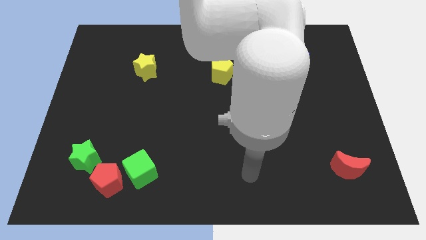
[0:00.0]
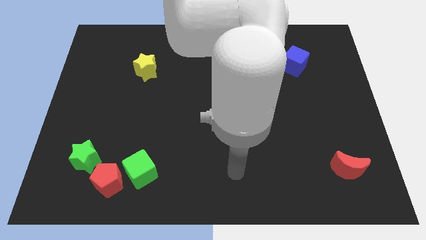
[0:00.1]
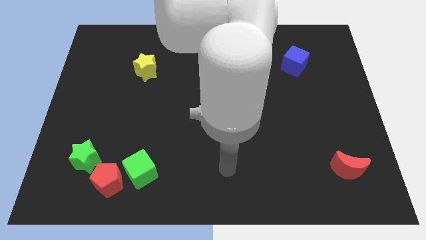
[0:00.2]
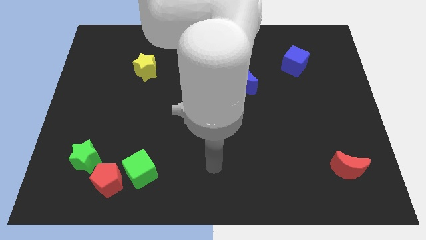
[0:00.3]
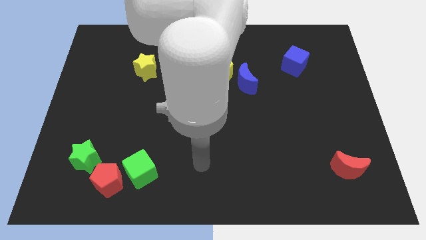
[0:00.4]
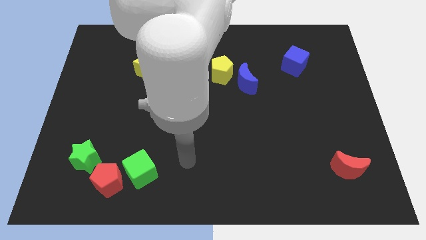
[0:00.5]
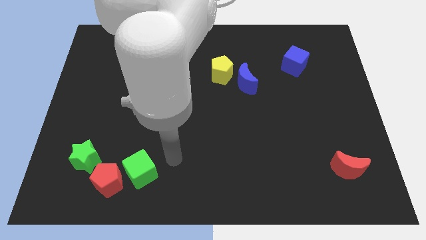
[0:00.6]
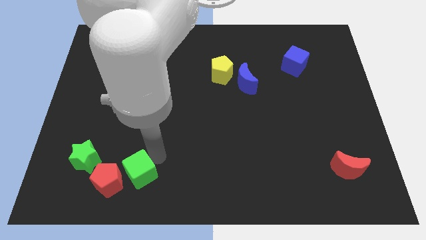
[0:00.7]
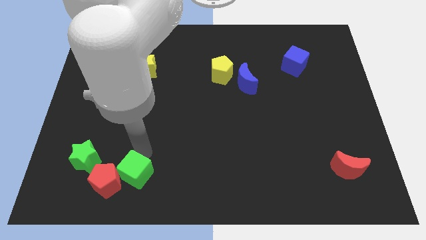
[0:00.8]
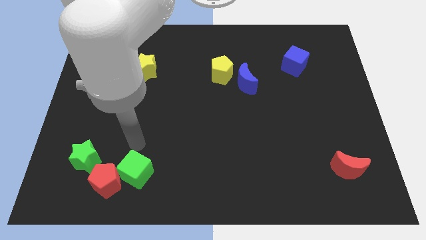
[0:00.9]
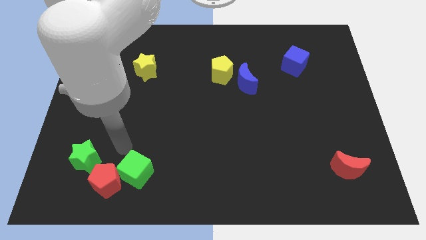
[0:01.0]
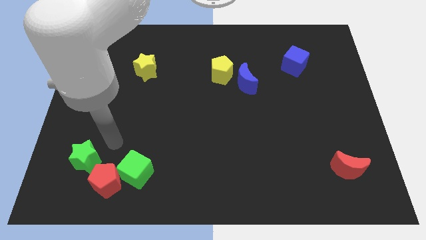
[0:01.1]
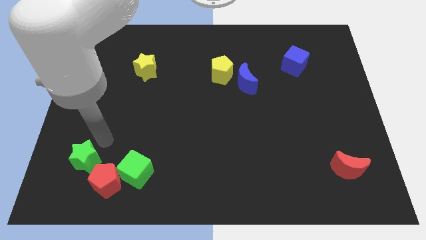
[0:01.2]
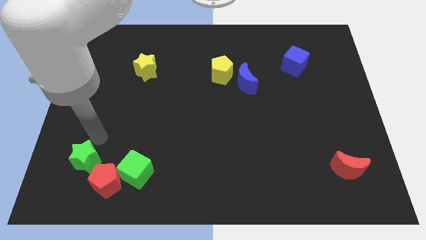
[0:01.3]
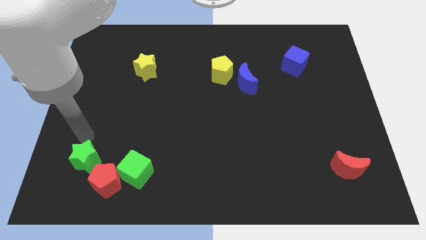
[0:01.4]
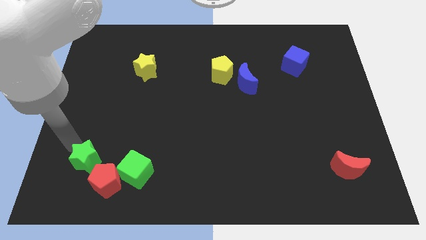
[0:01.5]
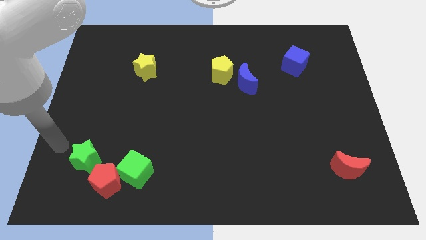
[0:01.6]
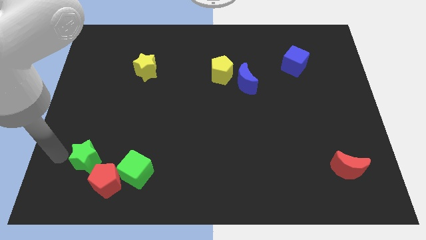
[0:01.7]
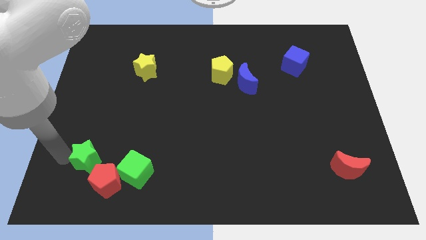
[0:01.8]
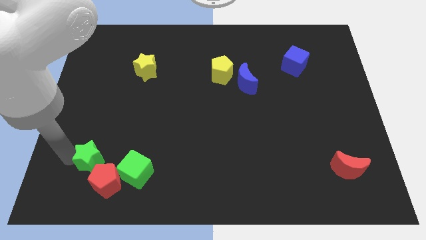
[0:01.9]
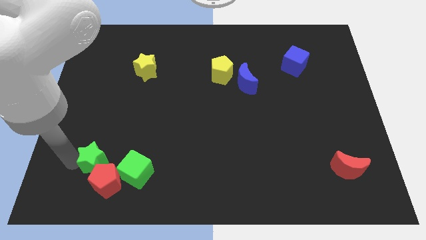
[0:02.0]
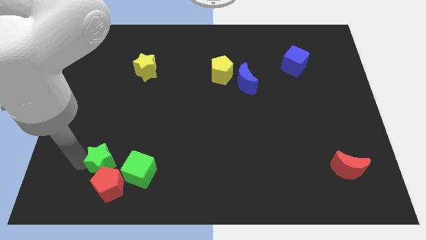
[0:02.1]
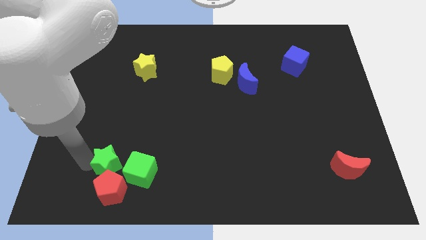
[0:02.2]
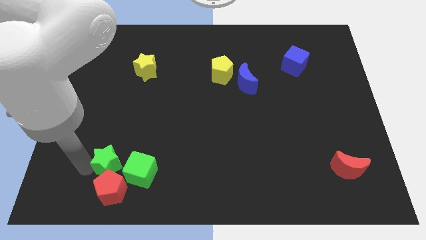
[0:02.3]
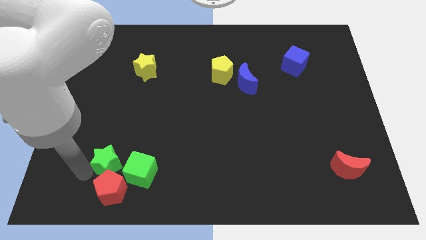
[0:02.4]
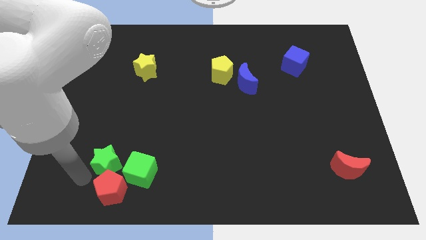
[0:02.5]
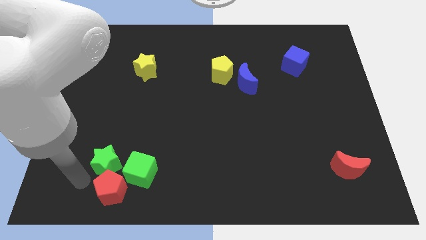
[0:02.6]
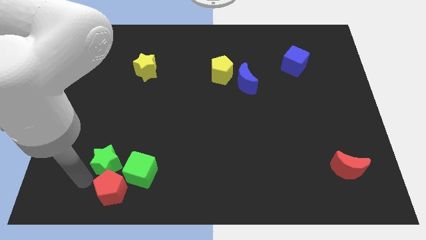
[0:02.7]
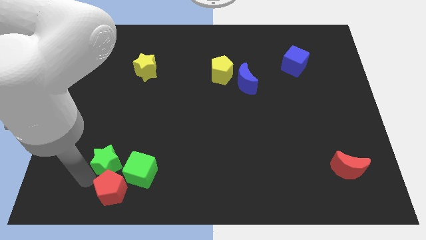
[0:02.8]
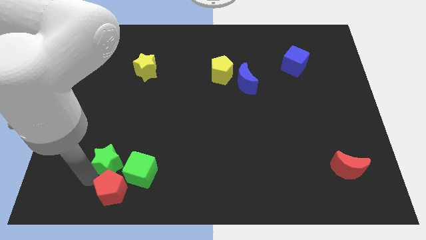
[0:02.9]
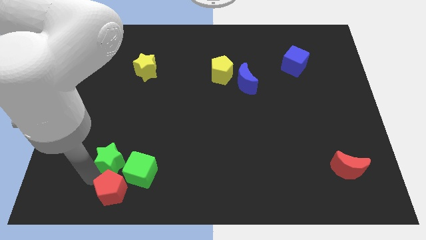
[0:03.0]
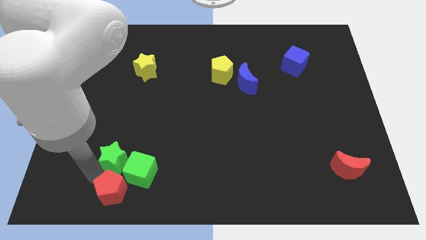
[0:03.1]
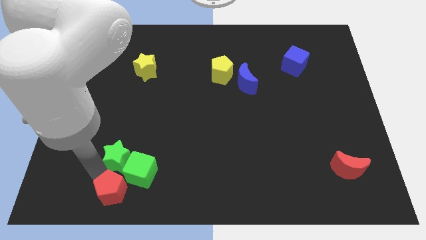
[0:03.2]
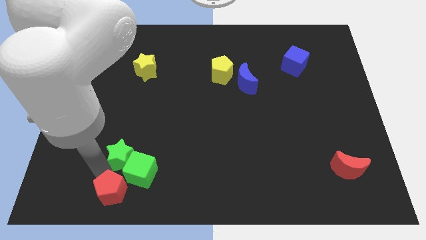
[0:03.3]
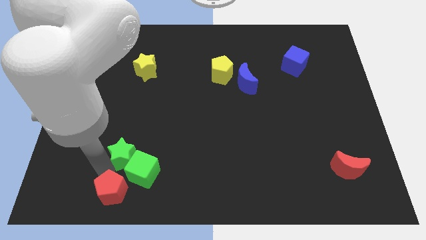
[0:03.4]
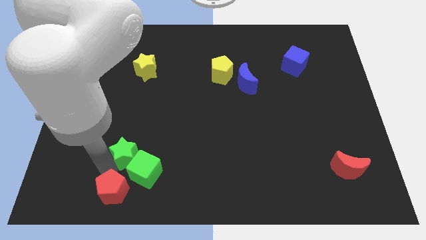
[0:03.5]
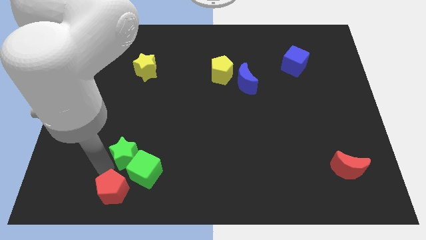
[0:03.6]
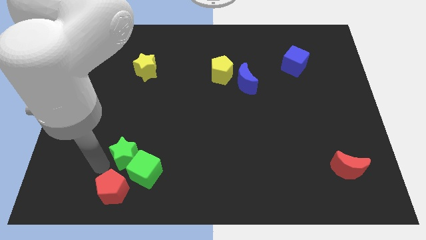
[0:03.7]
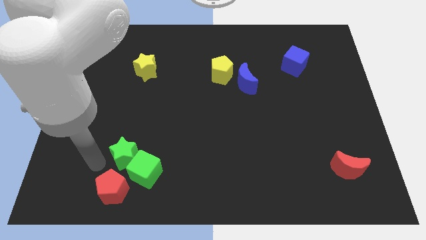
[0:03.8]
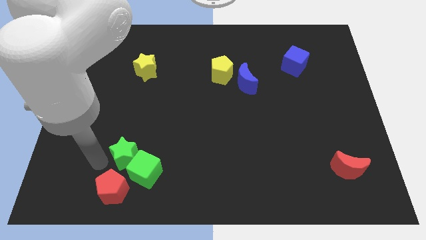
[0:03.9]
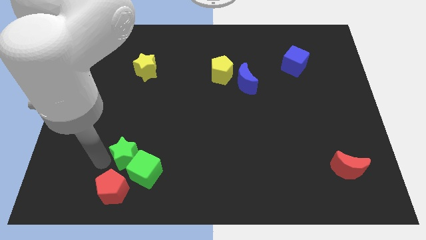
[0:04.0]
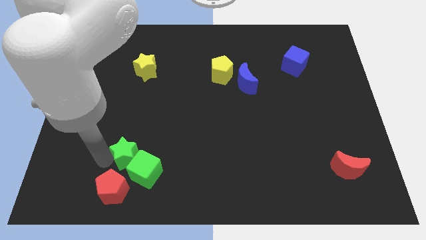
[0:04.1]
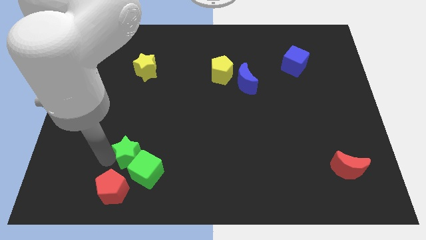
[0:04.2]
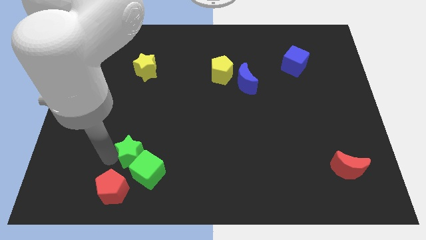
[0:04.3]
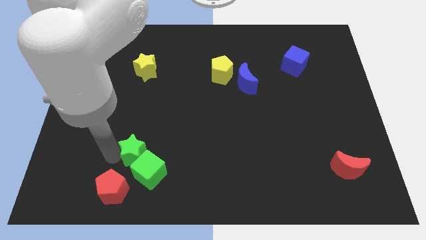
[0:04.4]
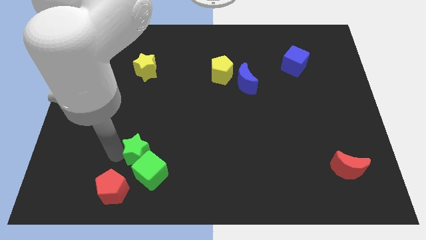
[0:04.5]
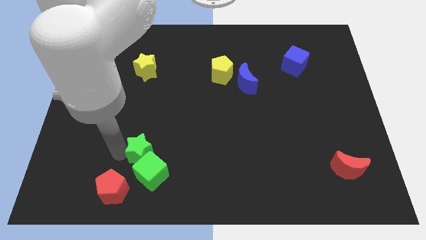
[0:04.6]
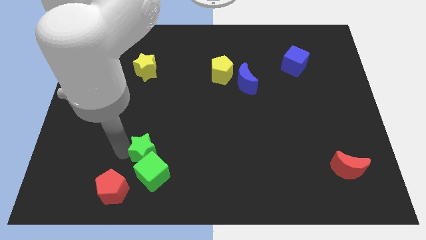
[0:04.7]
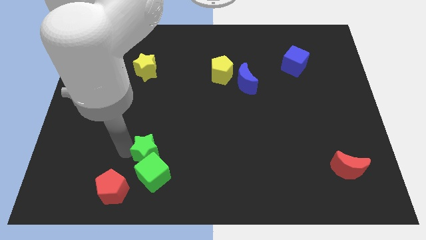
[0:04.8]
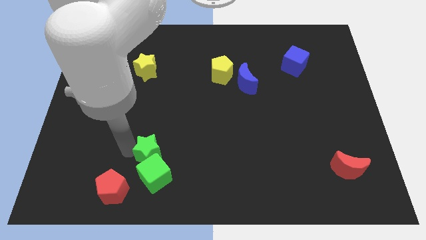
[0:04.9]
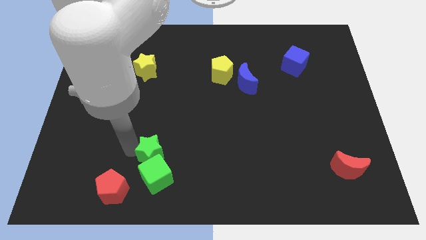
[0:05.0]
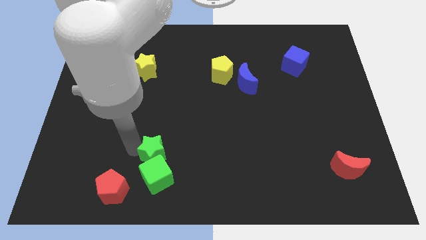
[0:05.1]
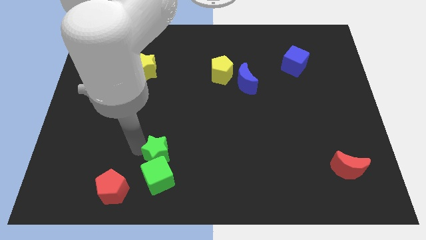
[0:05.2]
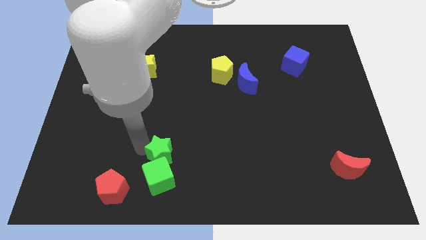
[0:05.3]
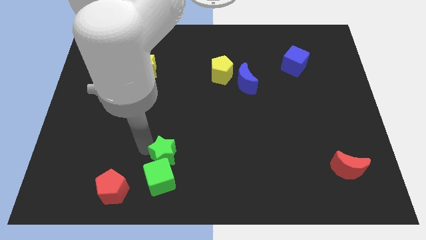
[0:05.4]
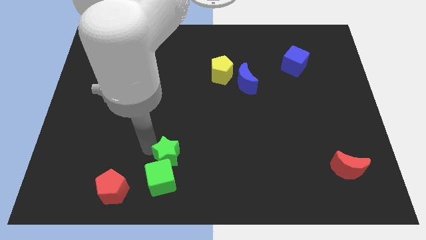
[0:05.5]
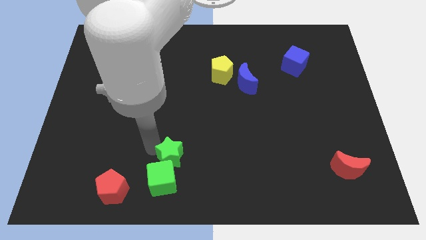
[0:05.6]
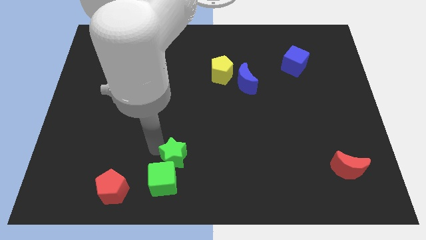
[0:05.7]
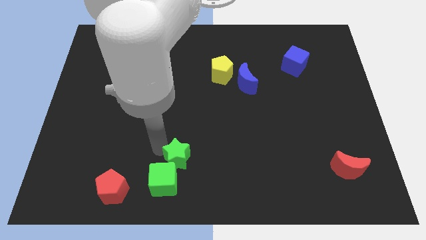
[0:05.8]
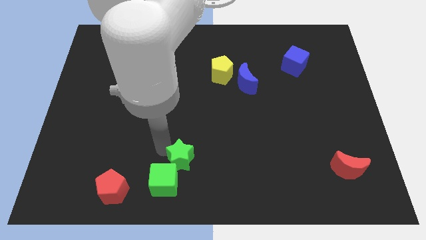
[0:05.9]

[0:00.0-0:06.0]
push the green star to the bottom side

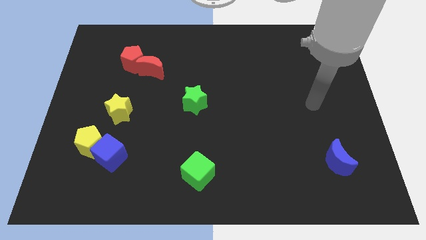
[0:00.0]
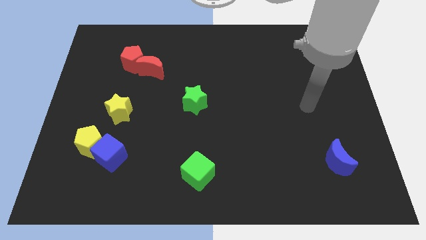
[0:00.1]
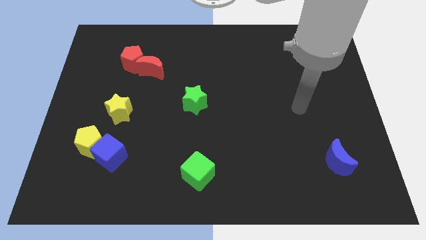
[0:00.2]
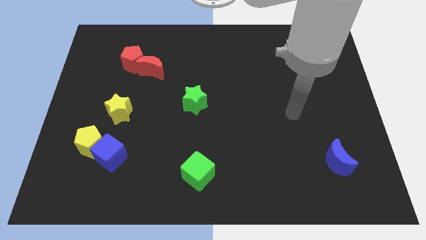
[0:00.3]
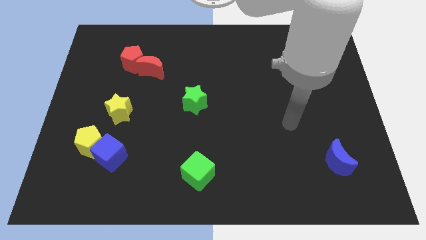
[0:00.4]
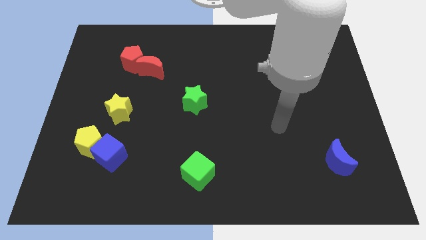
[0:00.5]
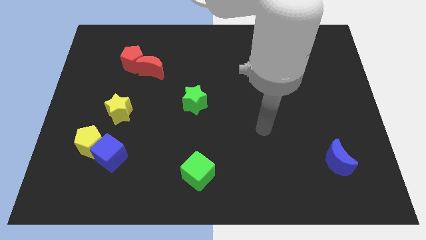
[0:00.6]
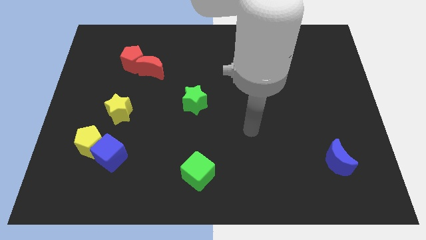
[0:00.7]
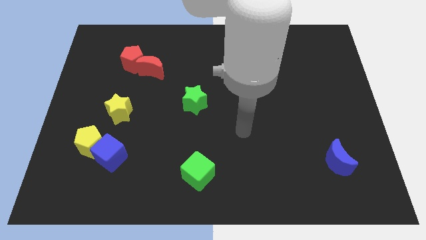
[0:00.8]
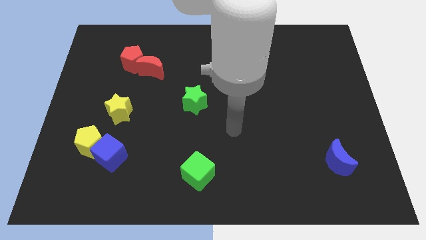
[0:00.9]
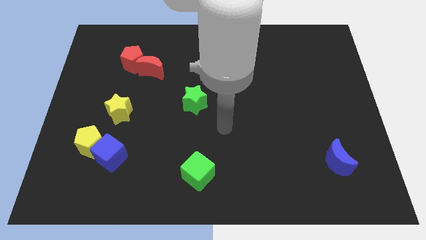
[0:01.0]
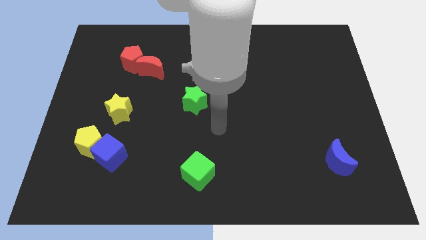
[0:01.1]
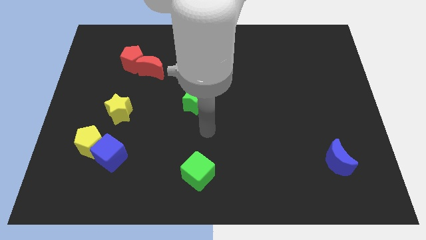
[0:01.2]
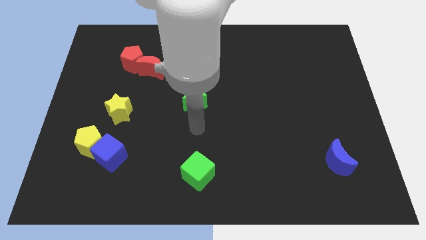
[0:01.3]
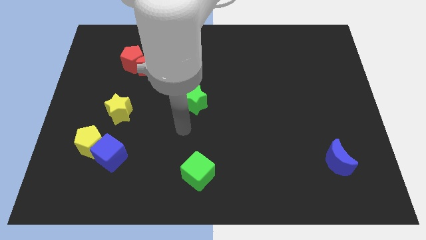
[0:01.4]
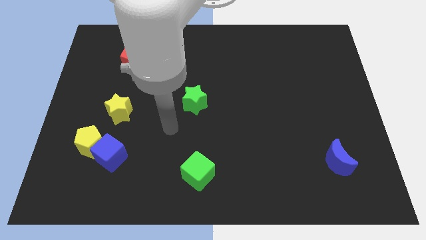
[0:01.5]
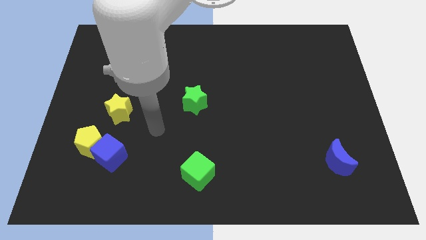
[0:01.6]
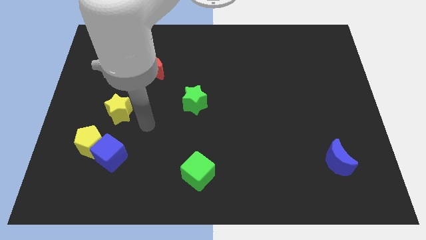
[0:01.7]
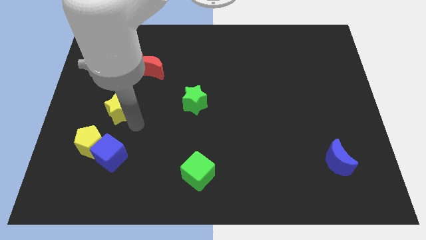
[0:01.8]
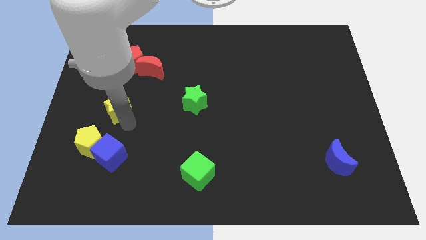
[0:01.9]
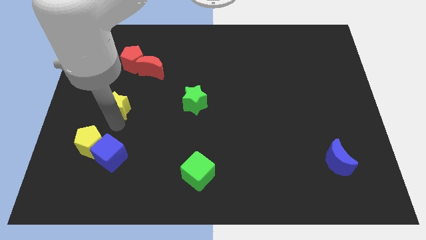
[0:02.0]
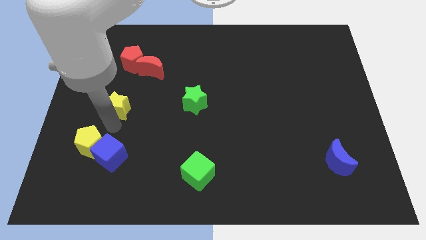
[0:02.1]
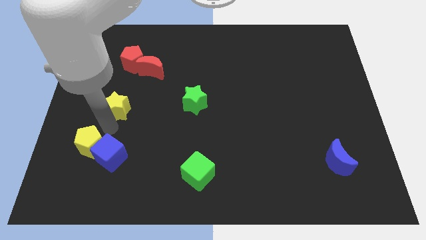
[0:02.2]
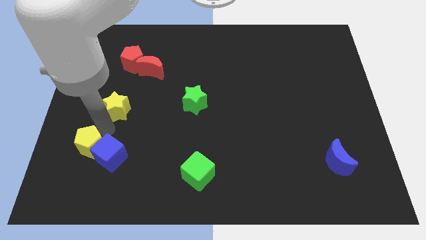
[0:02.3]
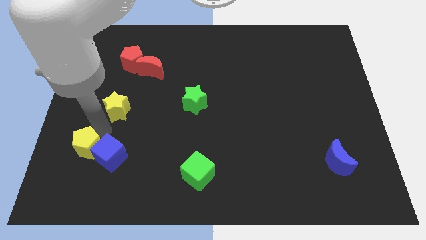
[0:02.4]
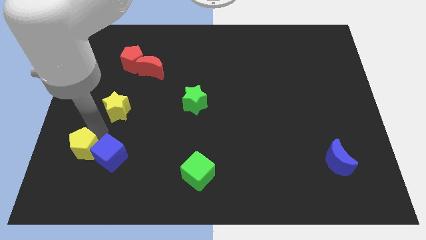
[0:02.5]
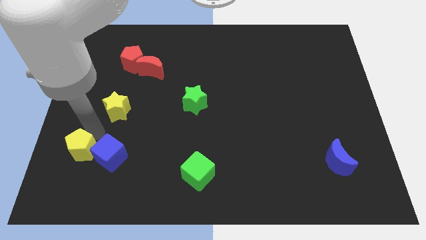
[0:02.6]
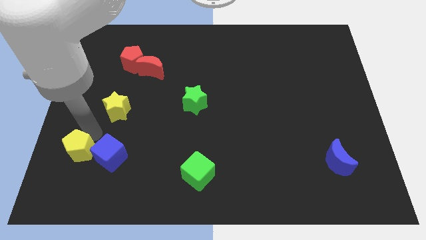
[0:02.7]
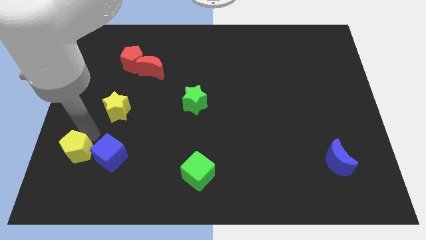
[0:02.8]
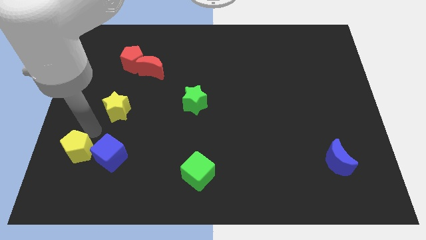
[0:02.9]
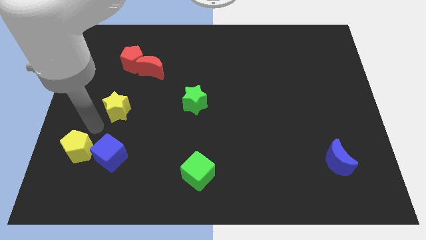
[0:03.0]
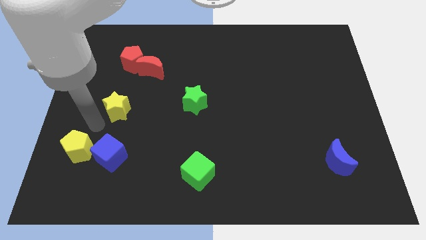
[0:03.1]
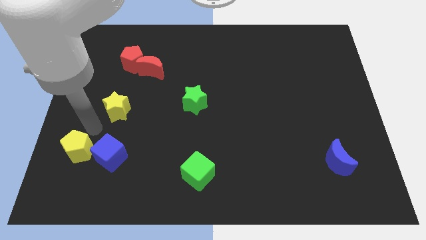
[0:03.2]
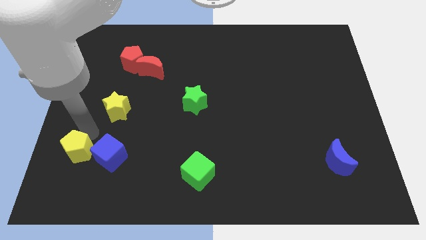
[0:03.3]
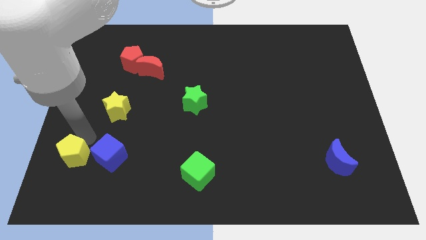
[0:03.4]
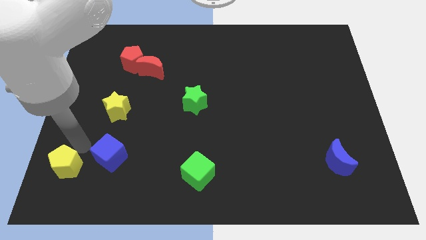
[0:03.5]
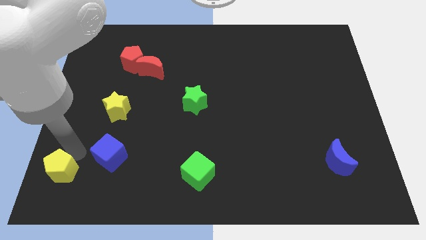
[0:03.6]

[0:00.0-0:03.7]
move the yellow pentagon to the bottom left
